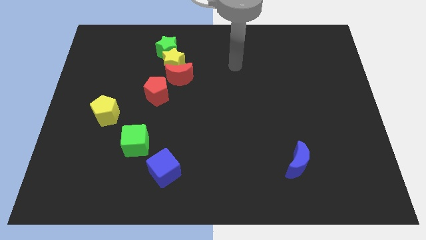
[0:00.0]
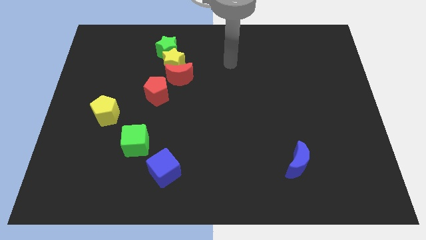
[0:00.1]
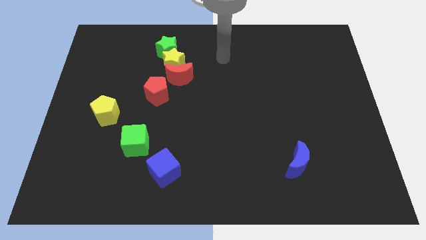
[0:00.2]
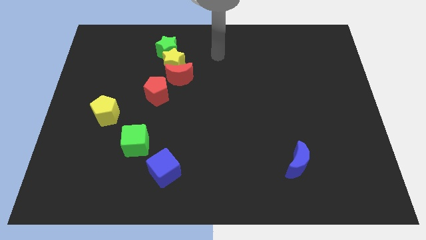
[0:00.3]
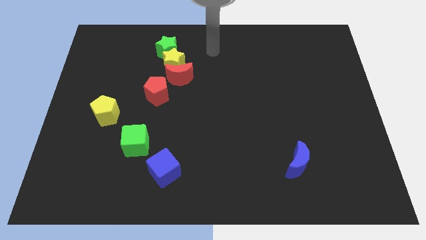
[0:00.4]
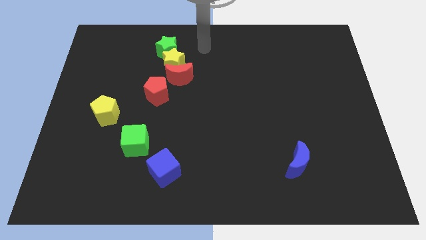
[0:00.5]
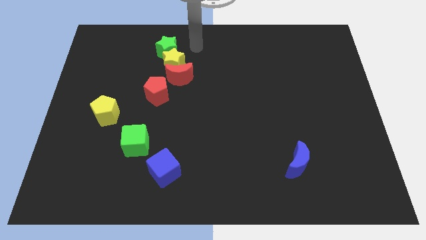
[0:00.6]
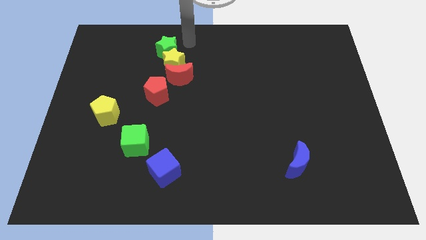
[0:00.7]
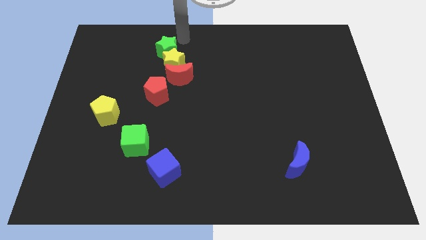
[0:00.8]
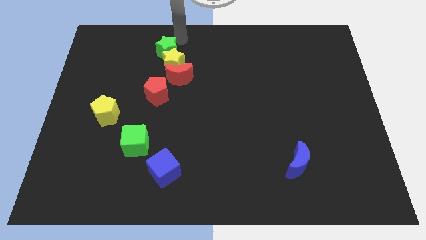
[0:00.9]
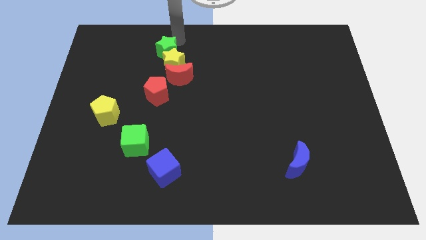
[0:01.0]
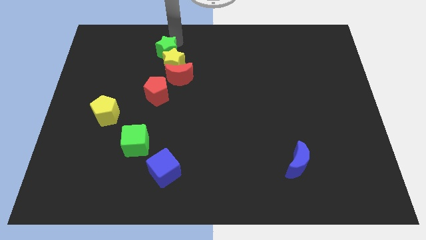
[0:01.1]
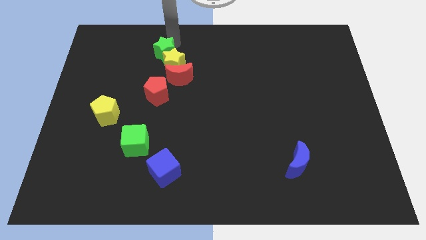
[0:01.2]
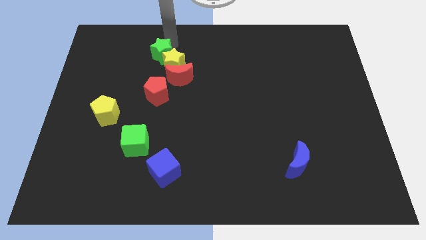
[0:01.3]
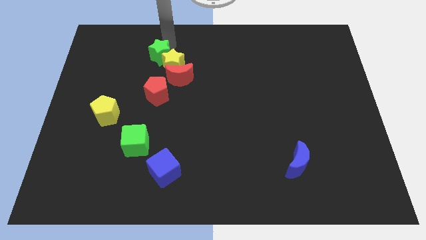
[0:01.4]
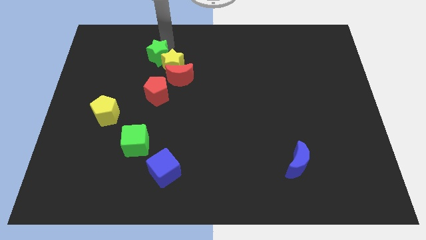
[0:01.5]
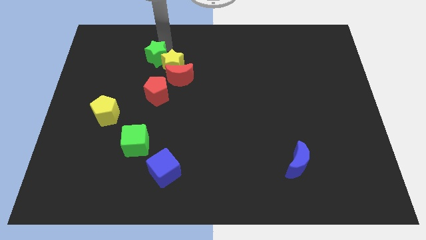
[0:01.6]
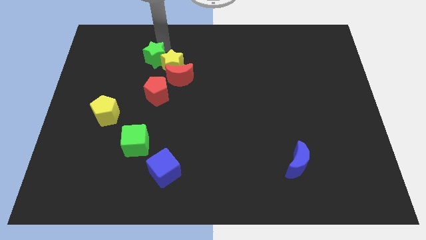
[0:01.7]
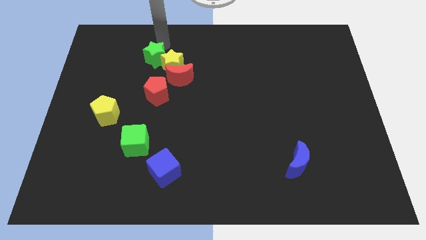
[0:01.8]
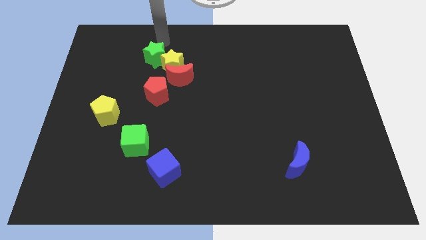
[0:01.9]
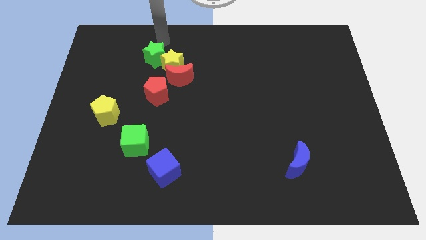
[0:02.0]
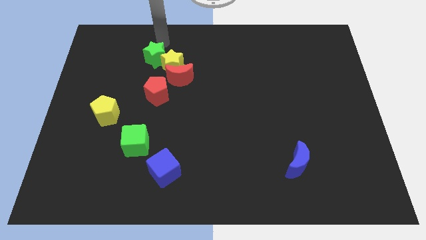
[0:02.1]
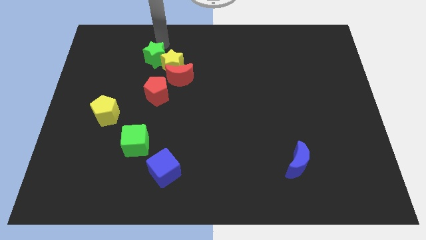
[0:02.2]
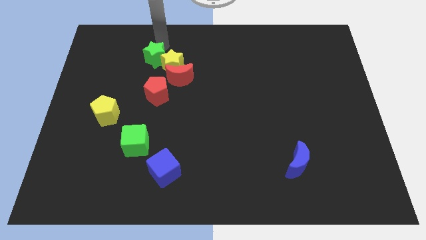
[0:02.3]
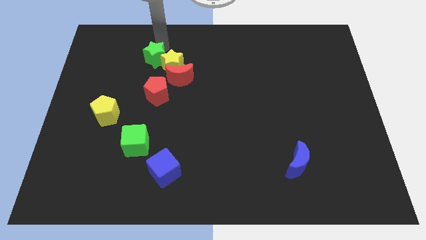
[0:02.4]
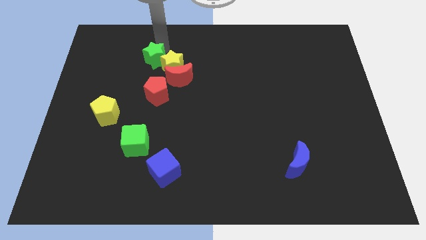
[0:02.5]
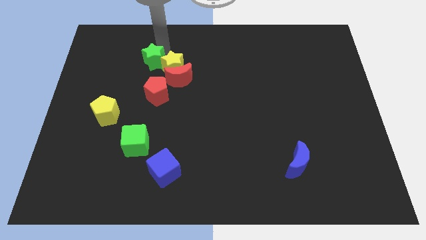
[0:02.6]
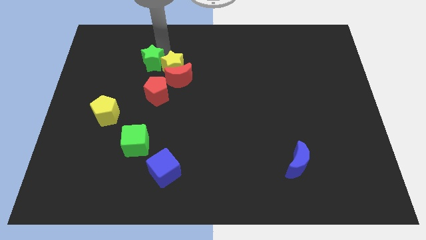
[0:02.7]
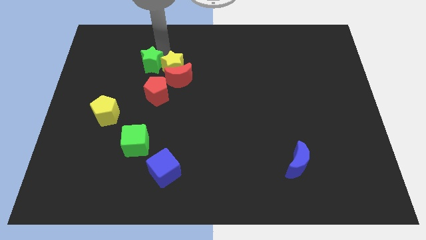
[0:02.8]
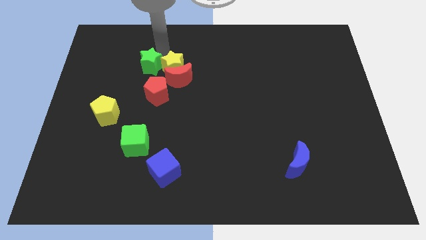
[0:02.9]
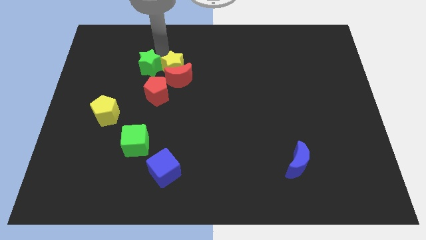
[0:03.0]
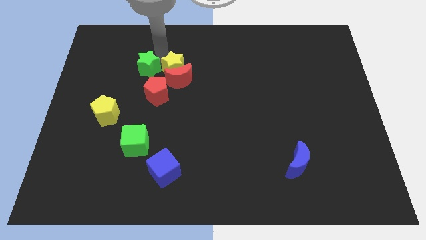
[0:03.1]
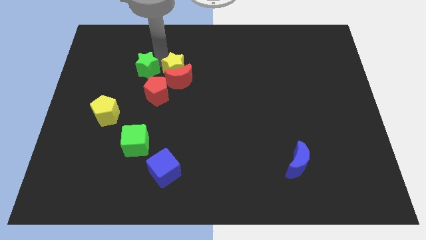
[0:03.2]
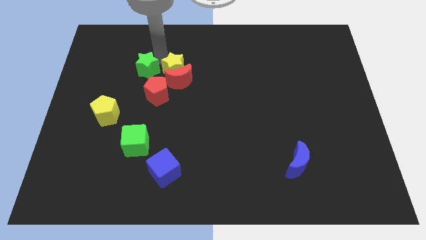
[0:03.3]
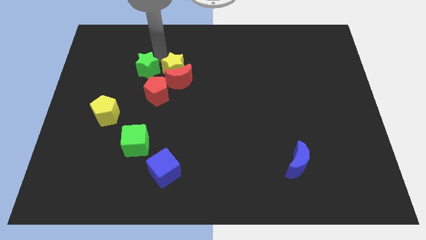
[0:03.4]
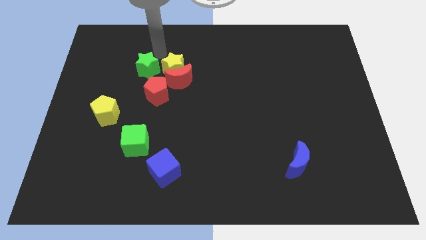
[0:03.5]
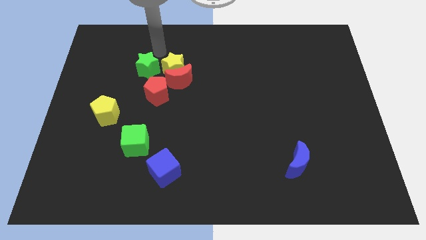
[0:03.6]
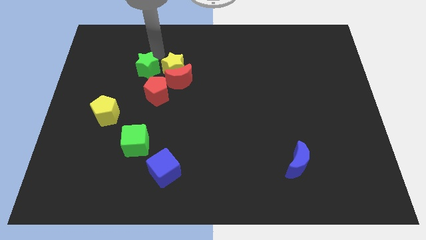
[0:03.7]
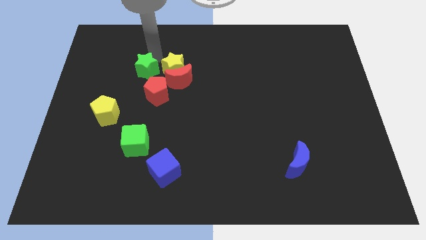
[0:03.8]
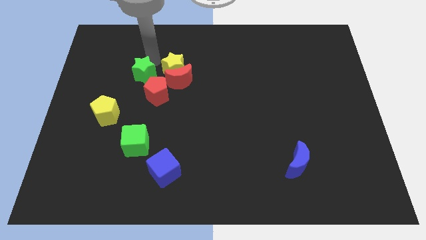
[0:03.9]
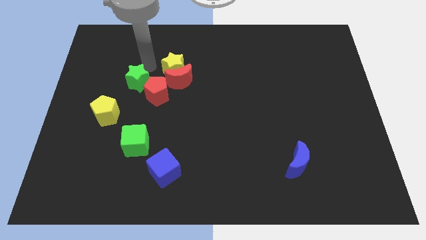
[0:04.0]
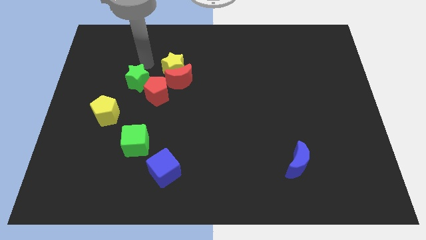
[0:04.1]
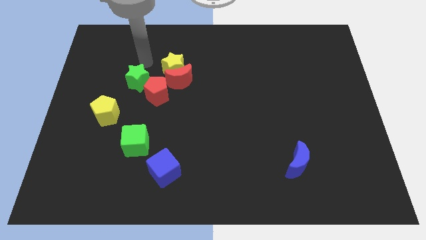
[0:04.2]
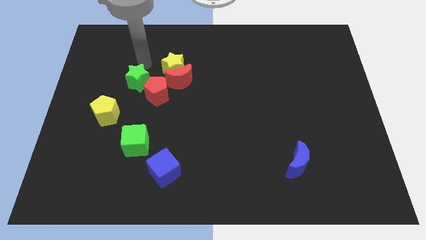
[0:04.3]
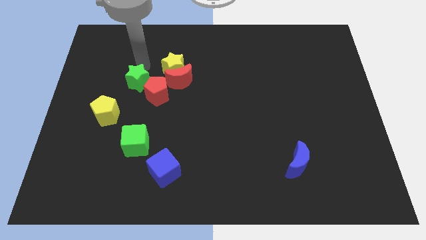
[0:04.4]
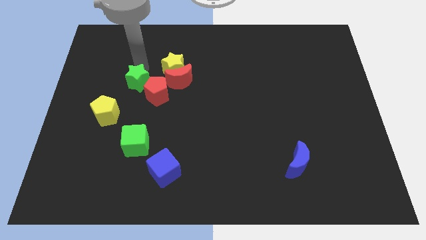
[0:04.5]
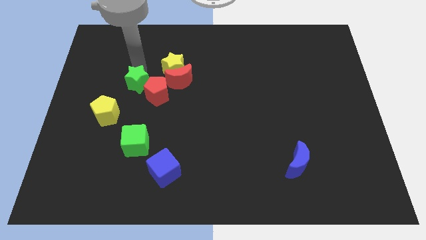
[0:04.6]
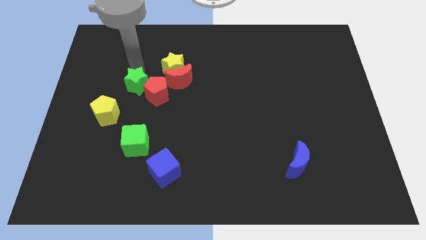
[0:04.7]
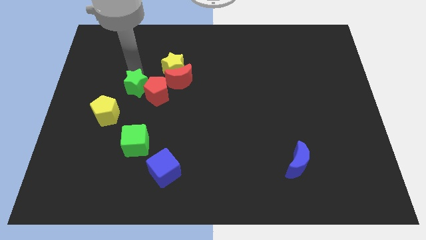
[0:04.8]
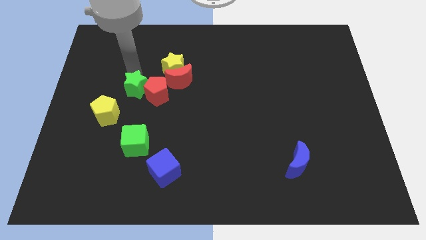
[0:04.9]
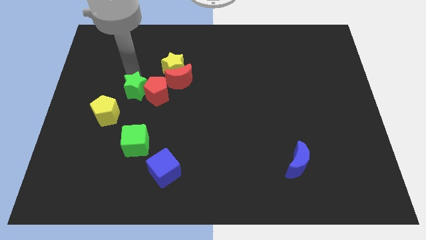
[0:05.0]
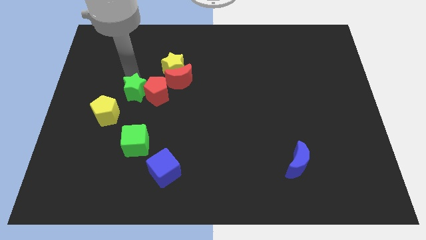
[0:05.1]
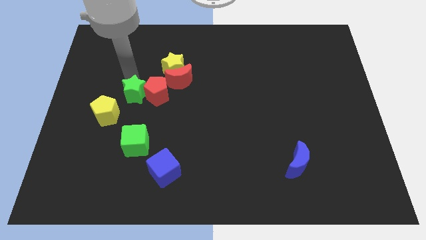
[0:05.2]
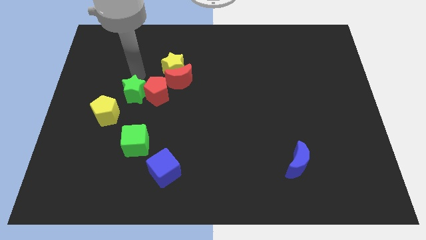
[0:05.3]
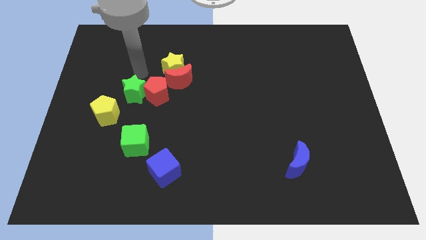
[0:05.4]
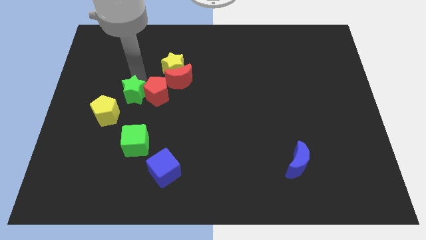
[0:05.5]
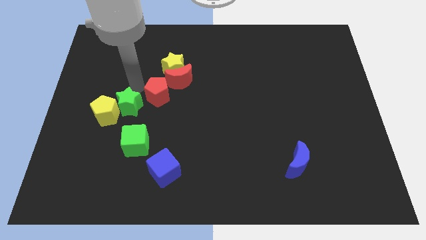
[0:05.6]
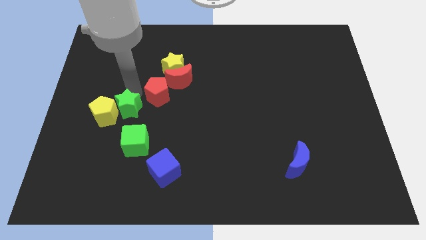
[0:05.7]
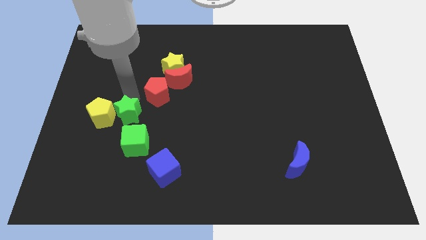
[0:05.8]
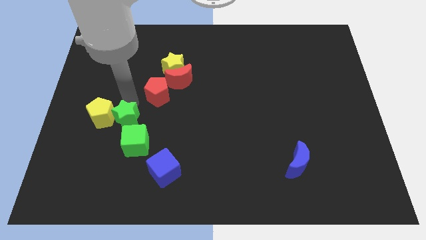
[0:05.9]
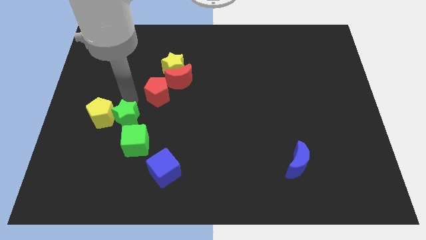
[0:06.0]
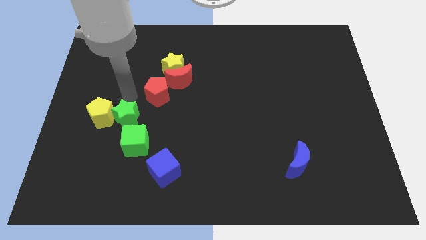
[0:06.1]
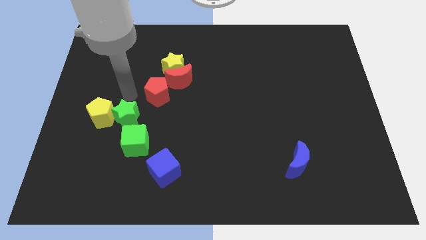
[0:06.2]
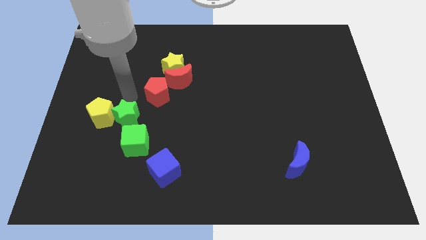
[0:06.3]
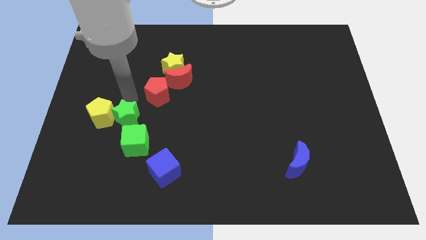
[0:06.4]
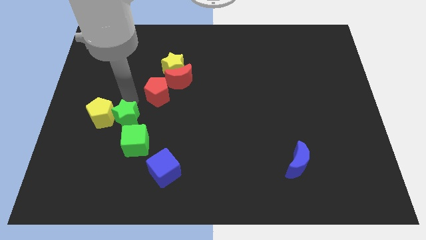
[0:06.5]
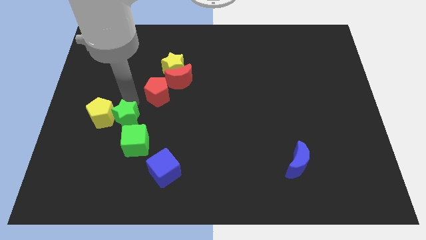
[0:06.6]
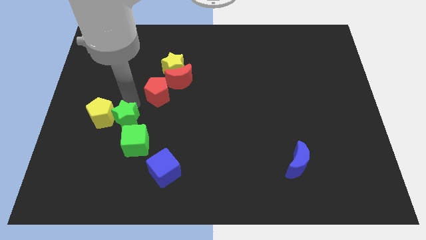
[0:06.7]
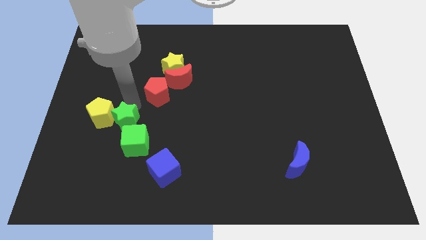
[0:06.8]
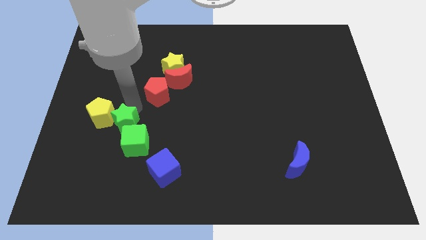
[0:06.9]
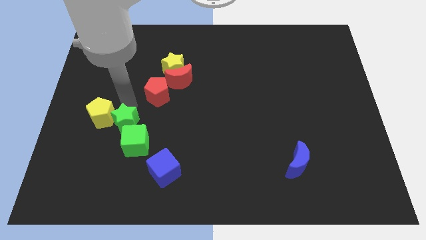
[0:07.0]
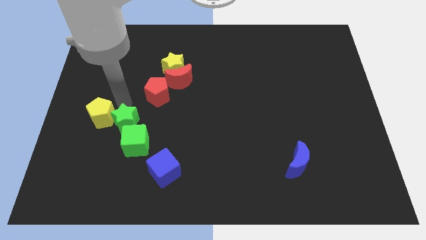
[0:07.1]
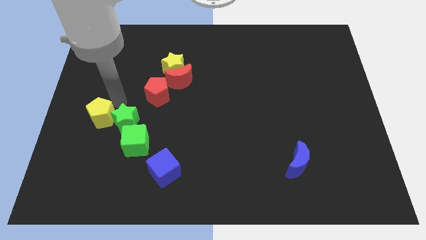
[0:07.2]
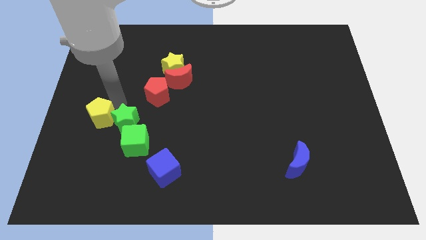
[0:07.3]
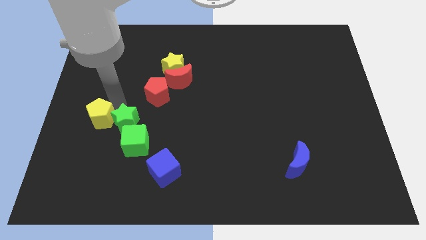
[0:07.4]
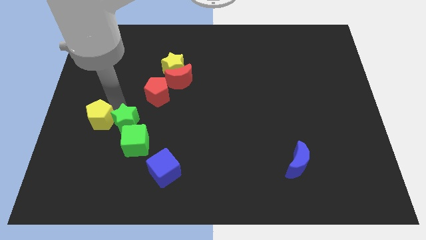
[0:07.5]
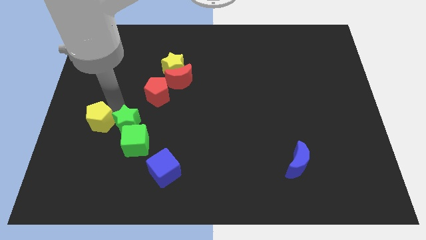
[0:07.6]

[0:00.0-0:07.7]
slide the green star towards the green cube
